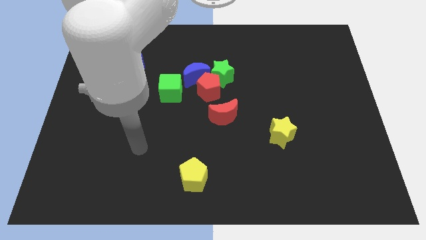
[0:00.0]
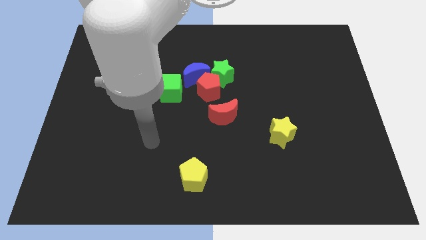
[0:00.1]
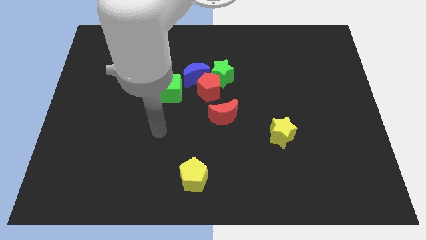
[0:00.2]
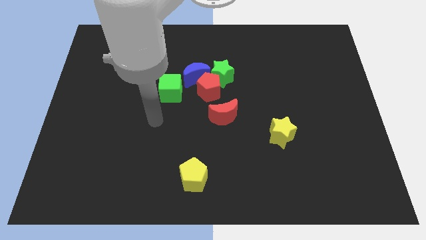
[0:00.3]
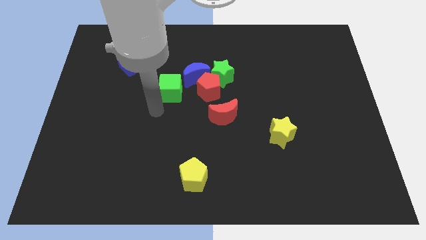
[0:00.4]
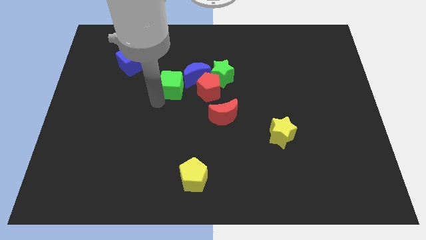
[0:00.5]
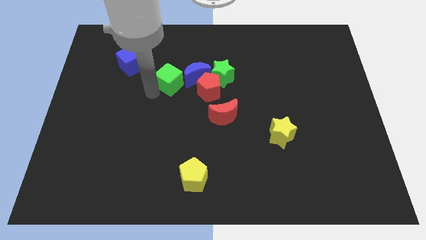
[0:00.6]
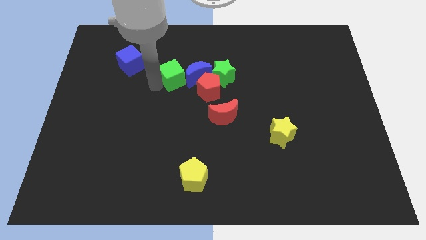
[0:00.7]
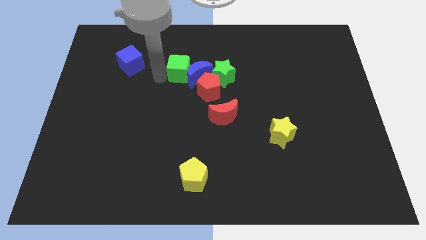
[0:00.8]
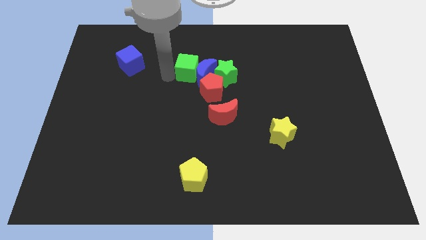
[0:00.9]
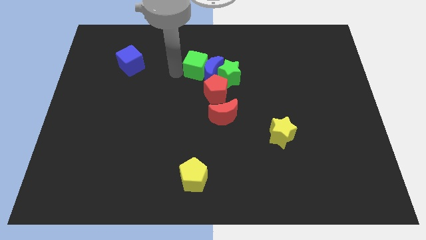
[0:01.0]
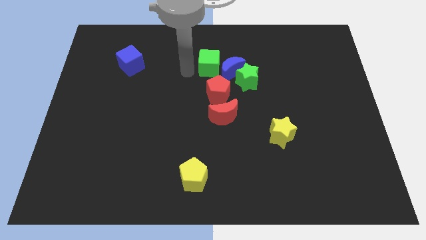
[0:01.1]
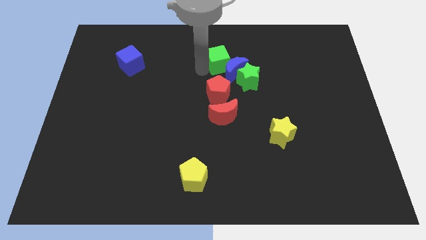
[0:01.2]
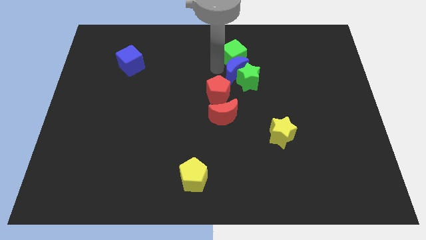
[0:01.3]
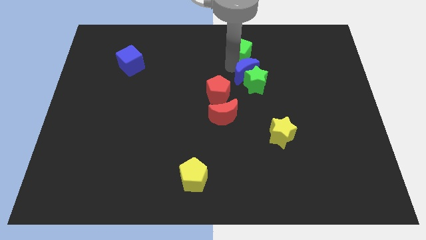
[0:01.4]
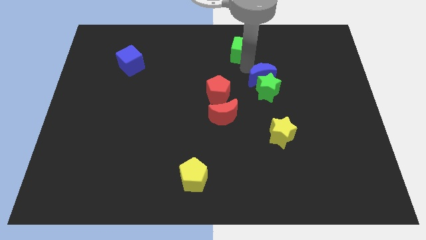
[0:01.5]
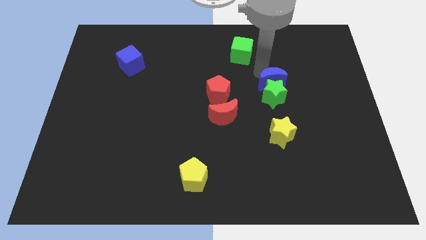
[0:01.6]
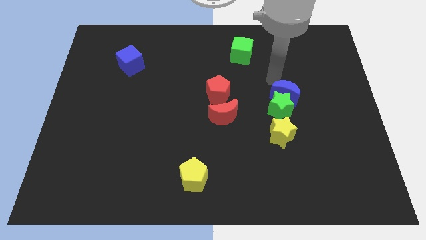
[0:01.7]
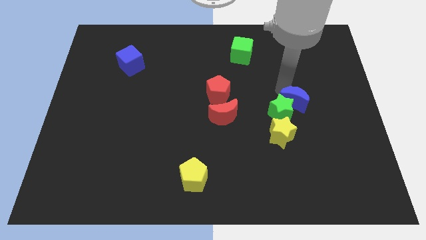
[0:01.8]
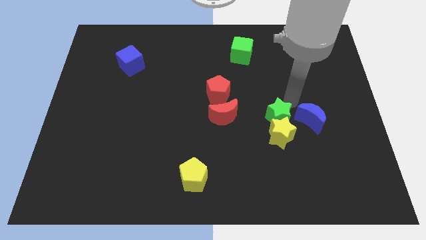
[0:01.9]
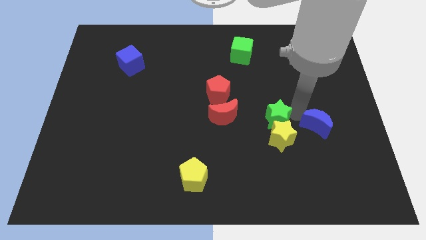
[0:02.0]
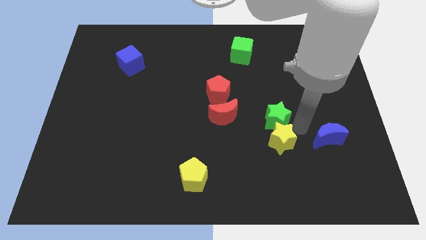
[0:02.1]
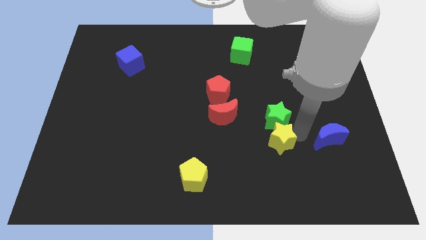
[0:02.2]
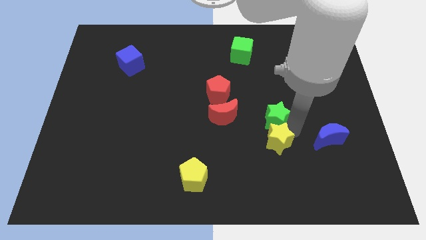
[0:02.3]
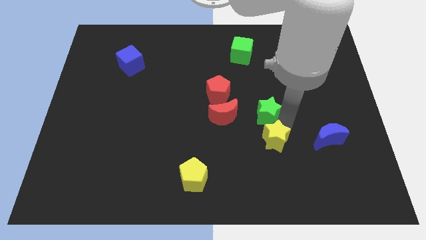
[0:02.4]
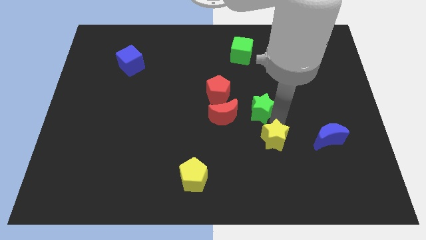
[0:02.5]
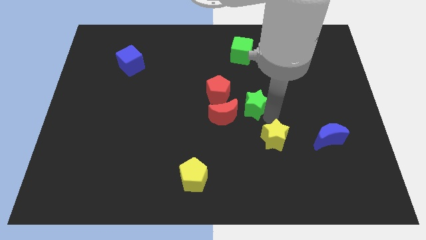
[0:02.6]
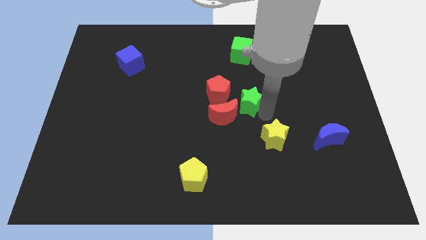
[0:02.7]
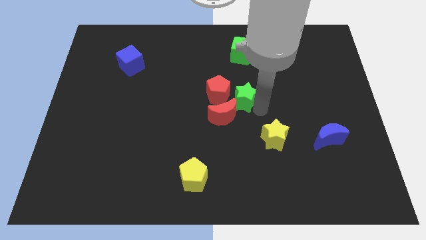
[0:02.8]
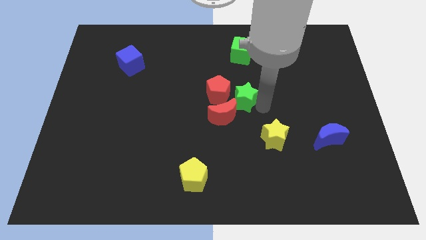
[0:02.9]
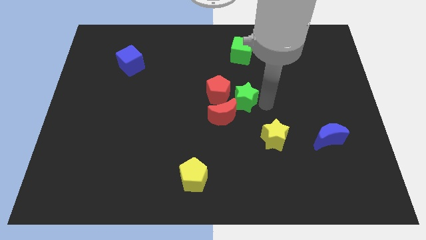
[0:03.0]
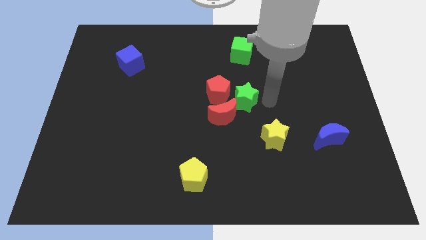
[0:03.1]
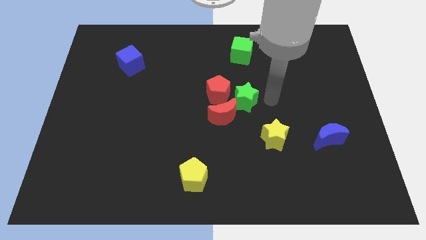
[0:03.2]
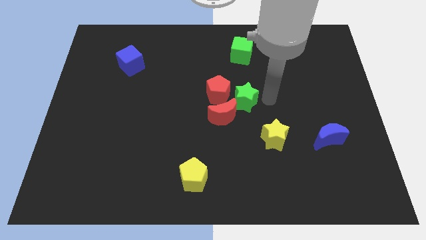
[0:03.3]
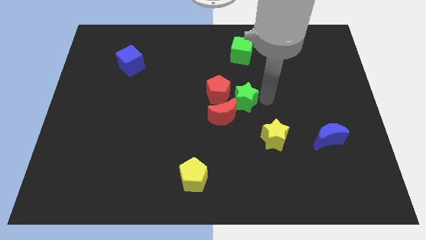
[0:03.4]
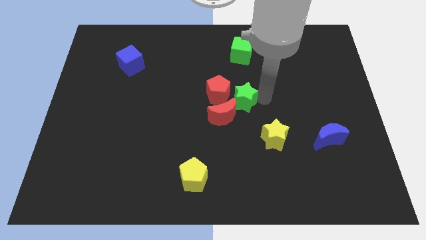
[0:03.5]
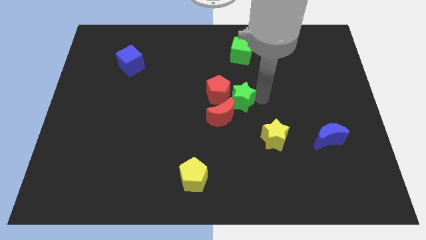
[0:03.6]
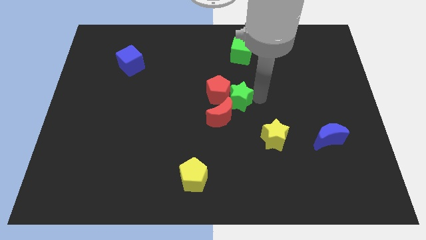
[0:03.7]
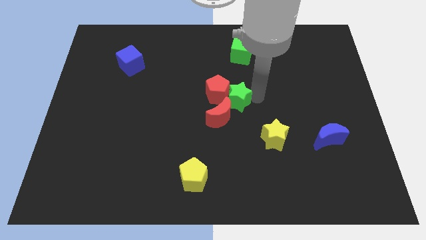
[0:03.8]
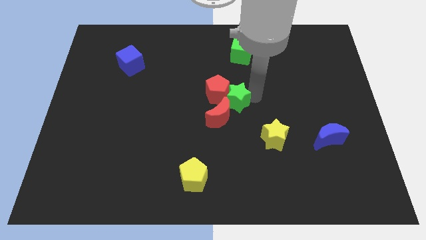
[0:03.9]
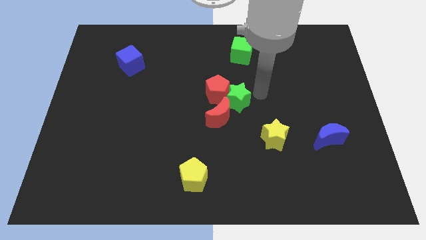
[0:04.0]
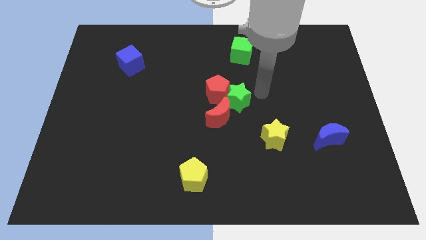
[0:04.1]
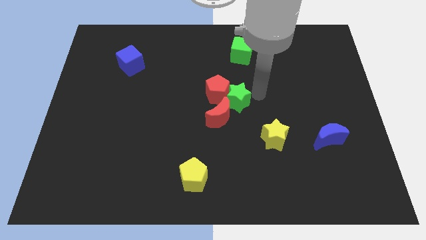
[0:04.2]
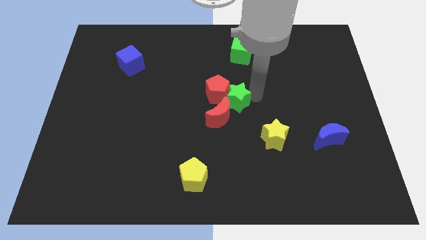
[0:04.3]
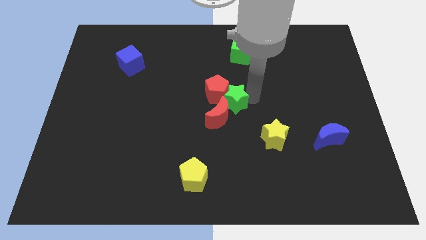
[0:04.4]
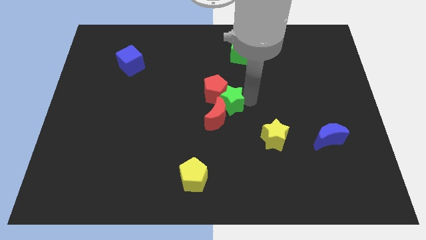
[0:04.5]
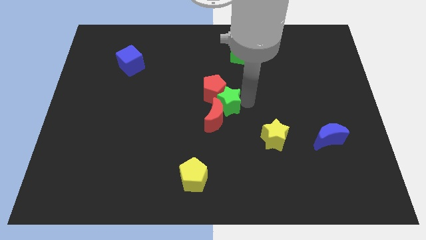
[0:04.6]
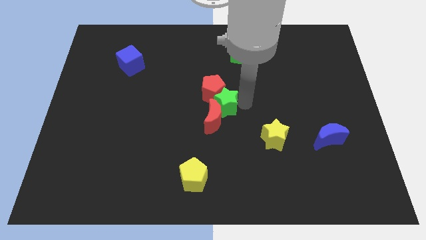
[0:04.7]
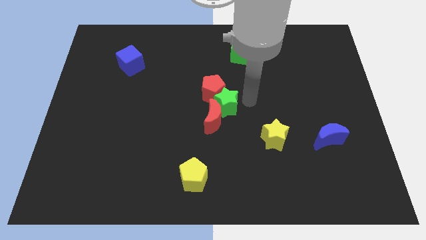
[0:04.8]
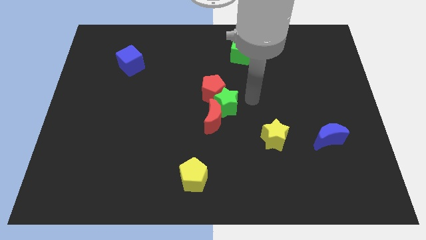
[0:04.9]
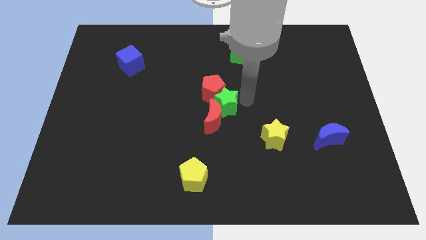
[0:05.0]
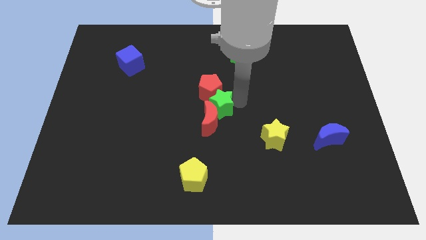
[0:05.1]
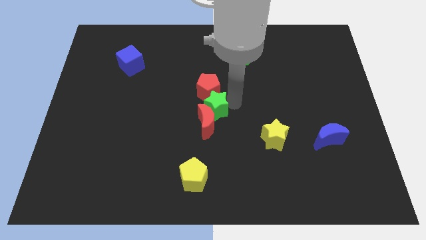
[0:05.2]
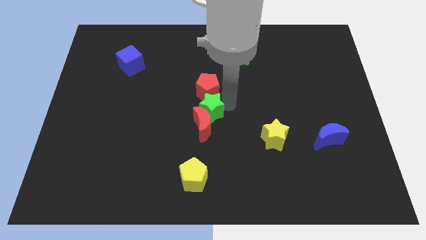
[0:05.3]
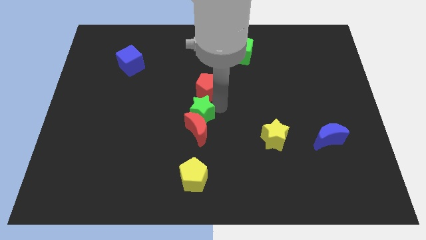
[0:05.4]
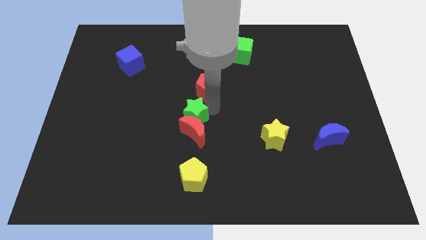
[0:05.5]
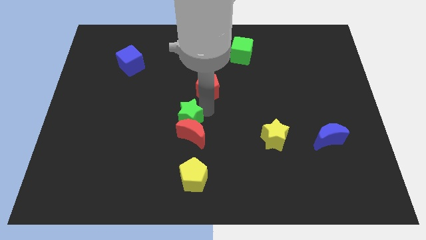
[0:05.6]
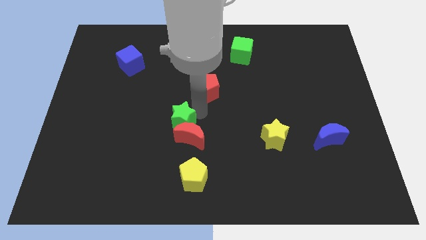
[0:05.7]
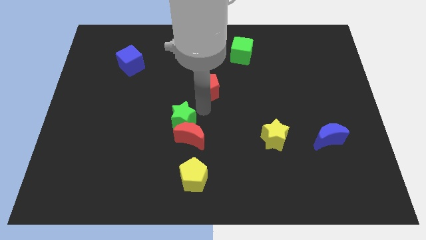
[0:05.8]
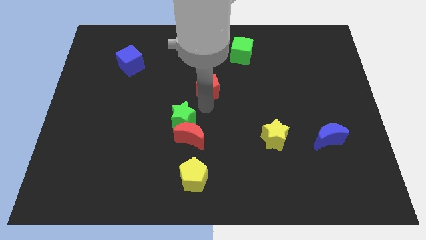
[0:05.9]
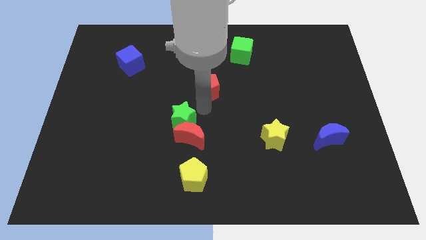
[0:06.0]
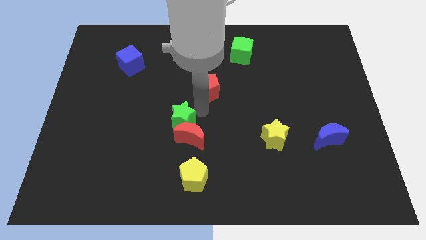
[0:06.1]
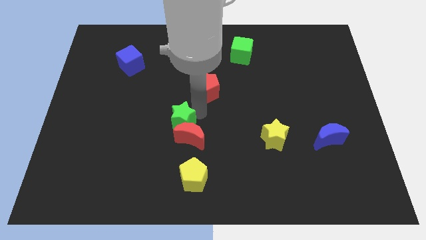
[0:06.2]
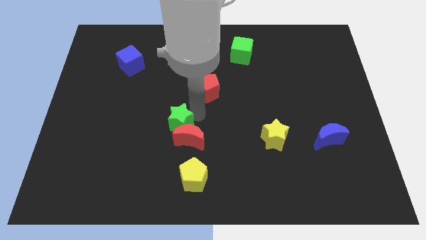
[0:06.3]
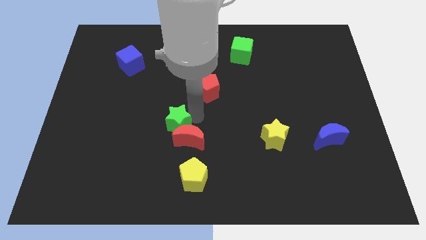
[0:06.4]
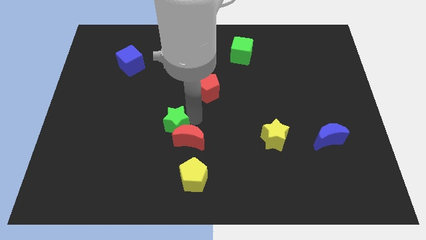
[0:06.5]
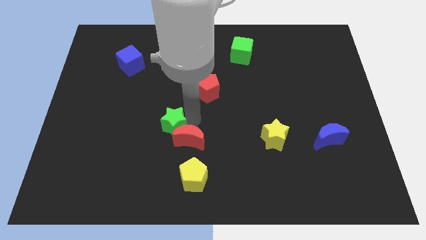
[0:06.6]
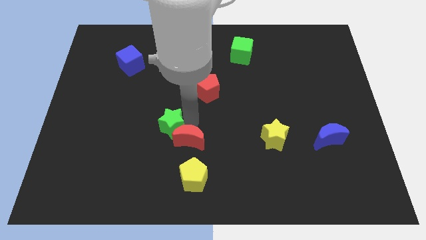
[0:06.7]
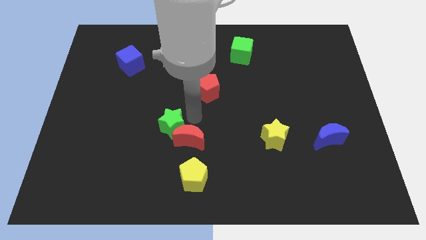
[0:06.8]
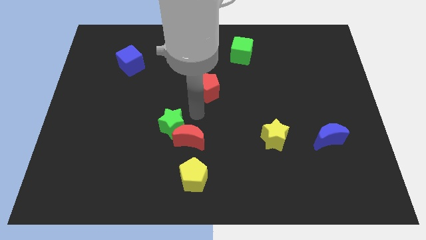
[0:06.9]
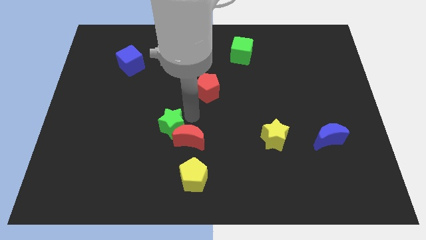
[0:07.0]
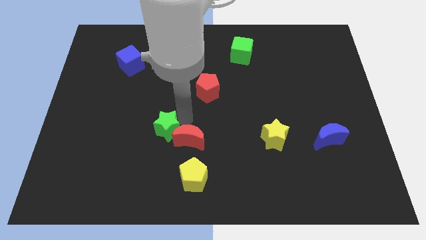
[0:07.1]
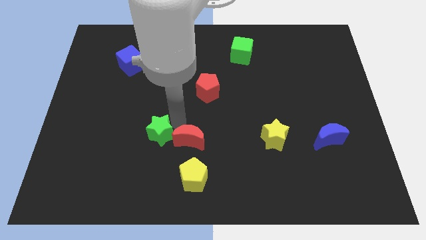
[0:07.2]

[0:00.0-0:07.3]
push the green star downwards and left diagonally

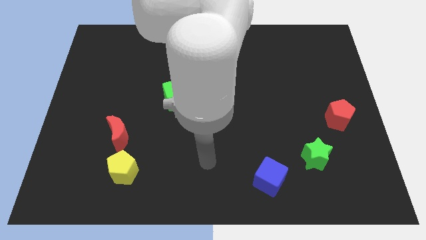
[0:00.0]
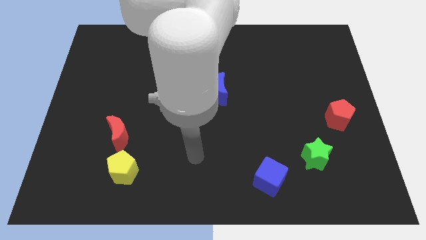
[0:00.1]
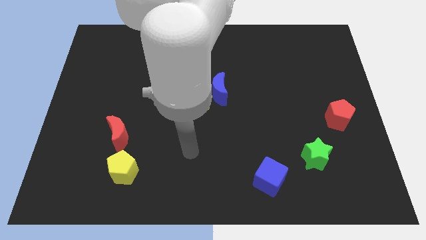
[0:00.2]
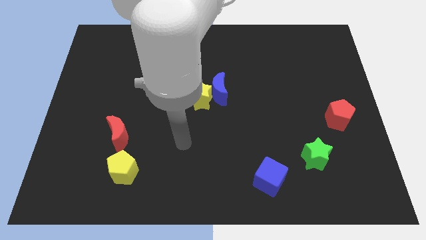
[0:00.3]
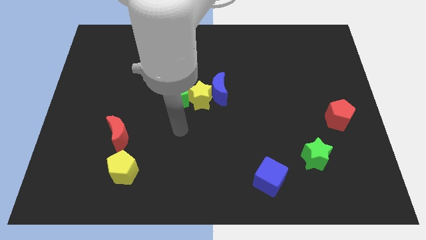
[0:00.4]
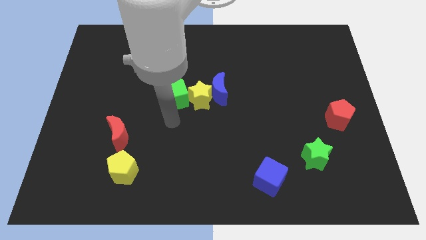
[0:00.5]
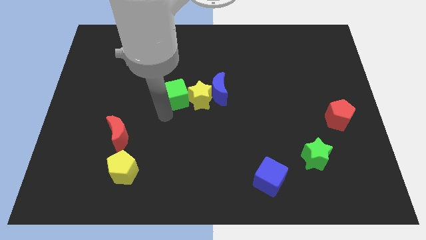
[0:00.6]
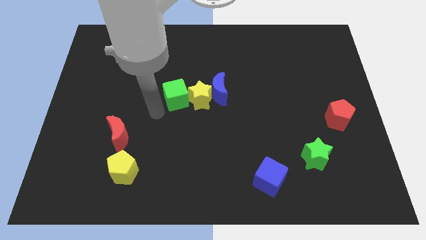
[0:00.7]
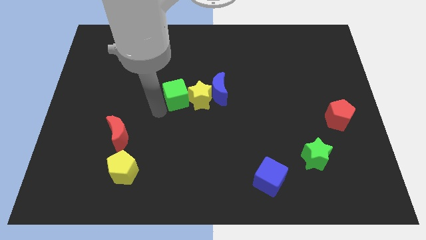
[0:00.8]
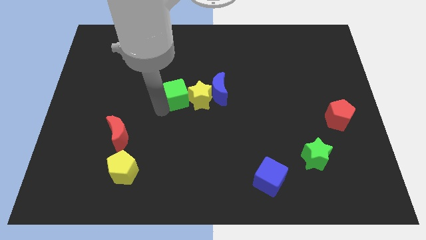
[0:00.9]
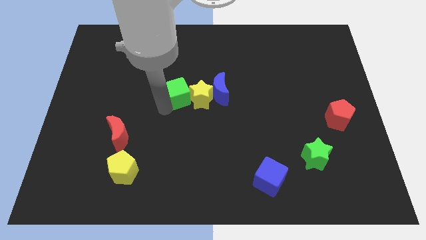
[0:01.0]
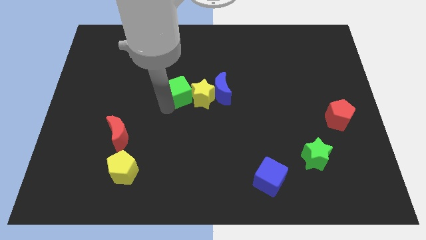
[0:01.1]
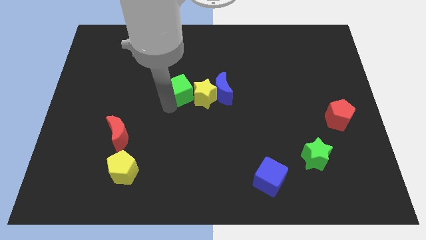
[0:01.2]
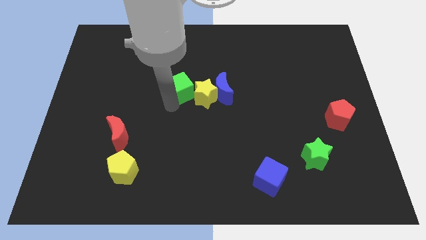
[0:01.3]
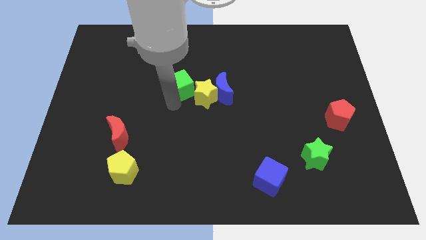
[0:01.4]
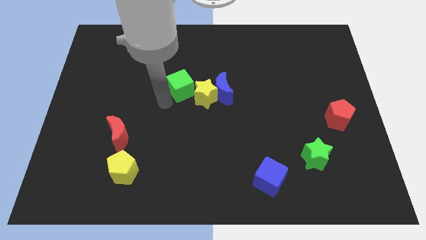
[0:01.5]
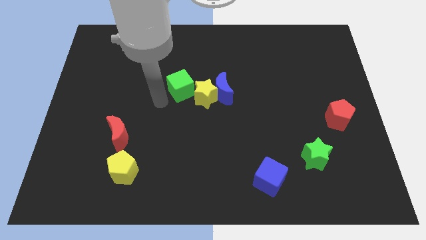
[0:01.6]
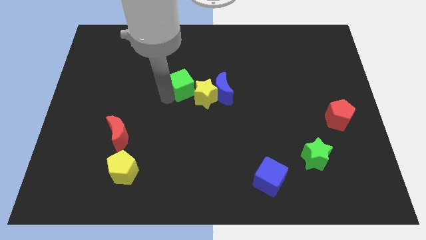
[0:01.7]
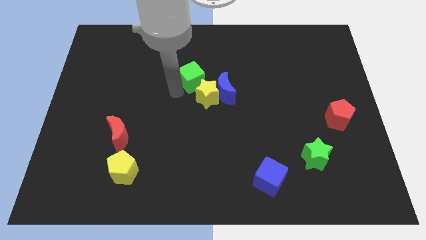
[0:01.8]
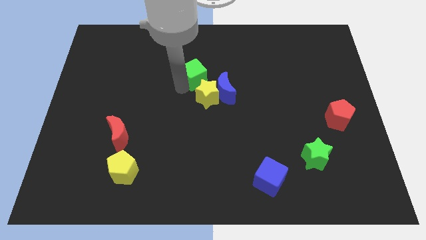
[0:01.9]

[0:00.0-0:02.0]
slightly push the green cube diagonally upwards and to the right
